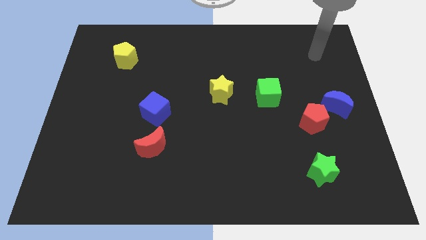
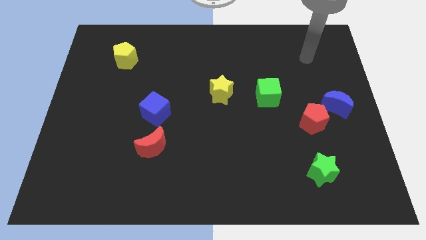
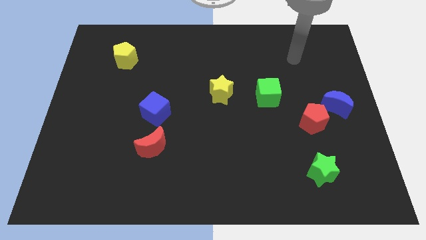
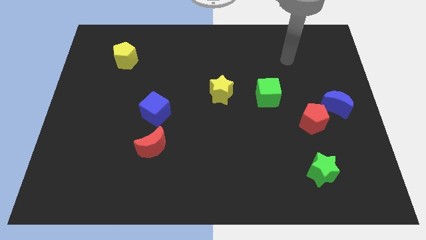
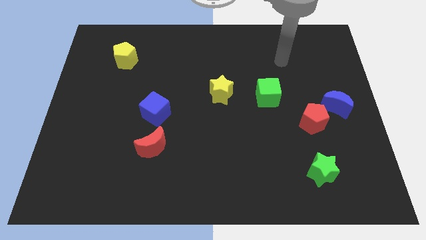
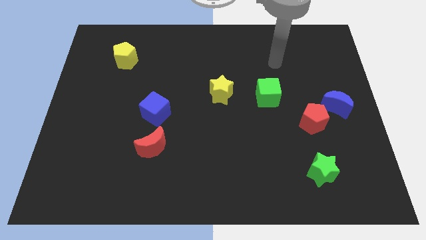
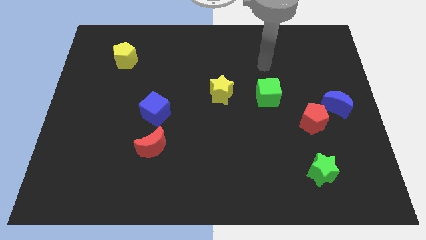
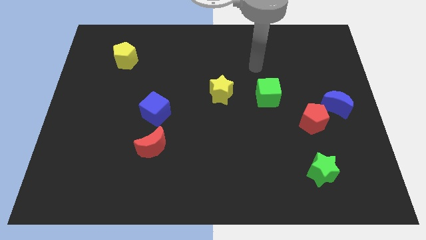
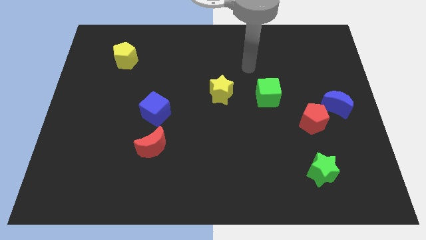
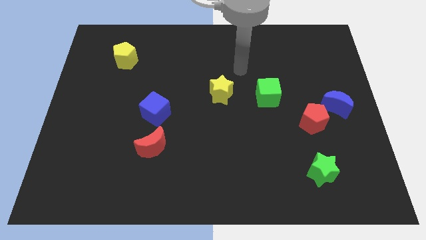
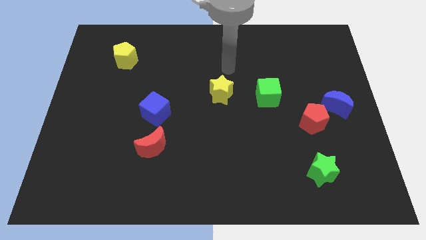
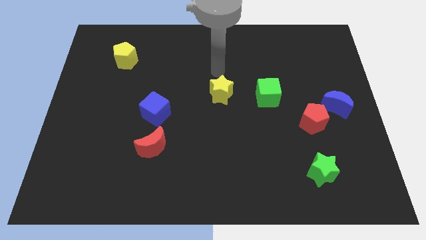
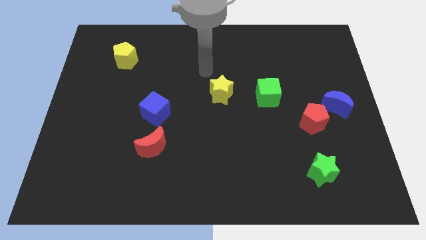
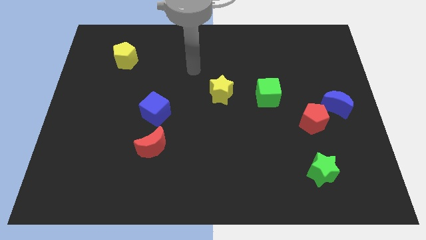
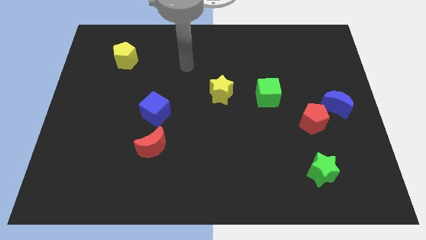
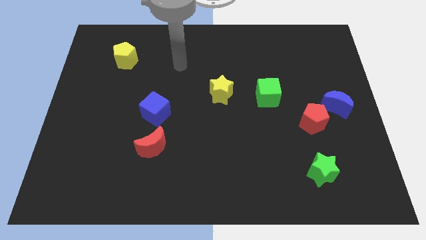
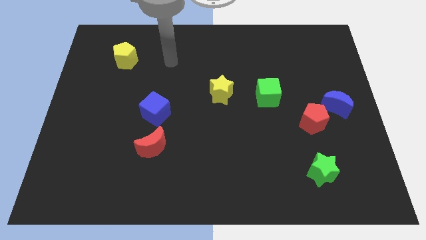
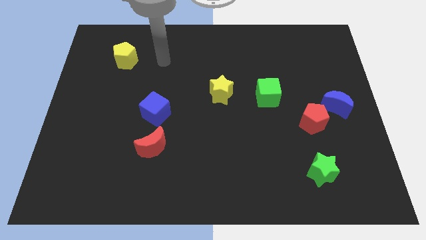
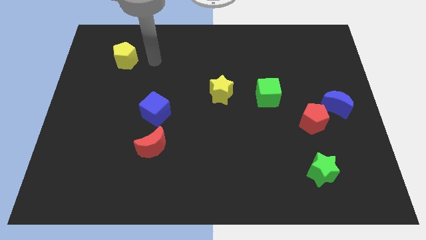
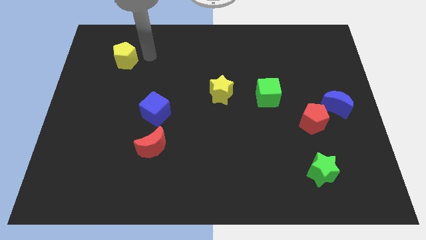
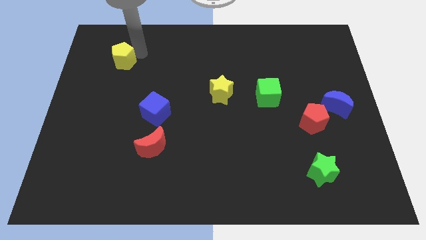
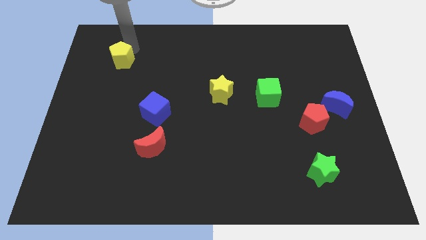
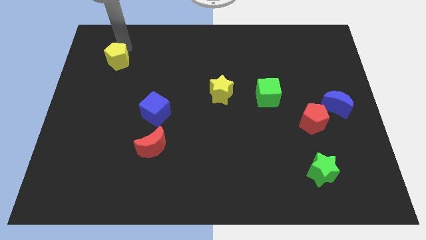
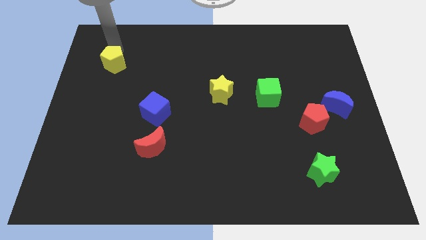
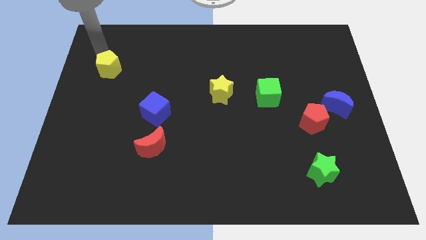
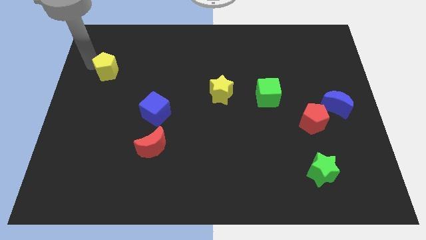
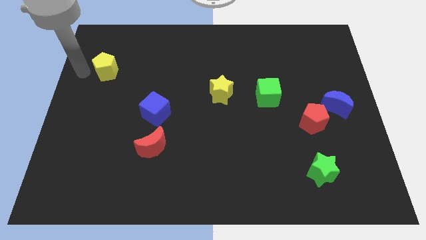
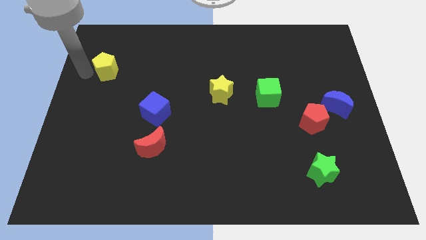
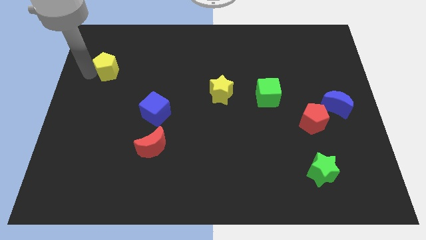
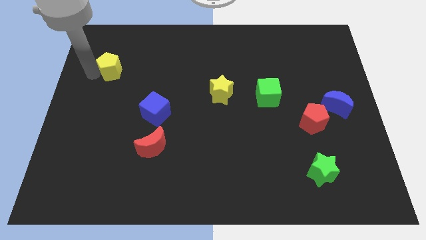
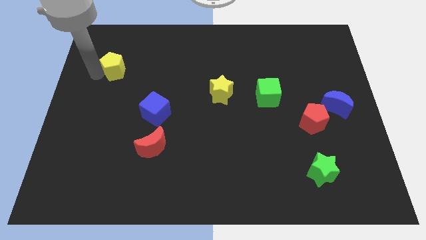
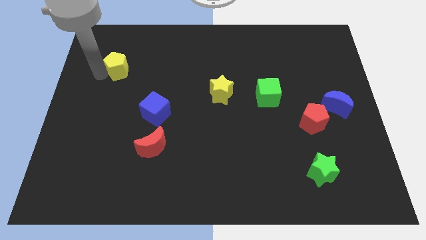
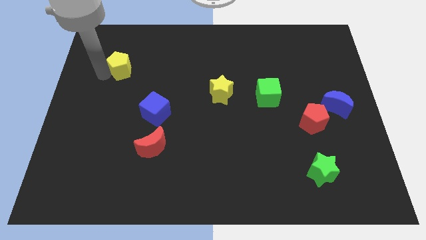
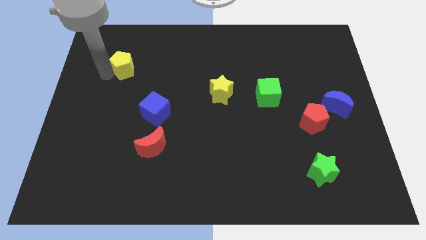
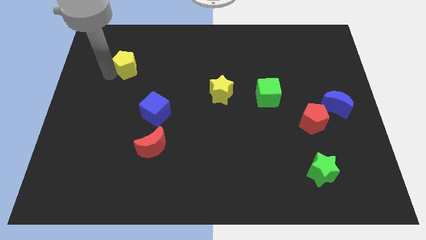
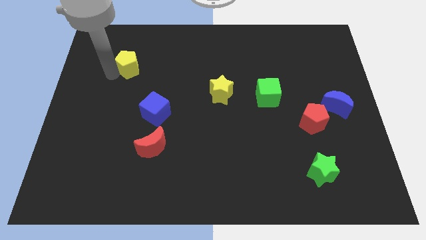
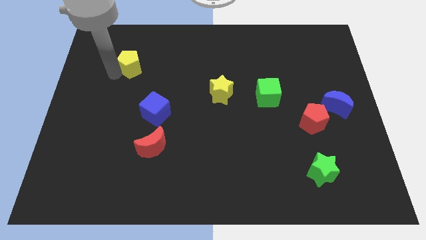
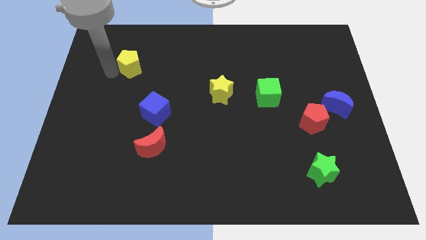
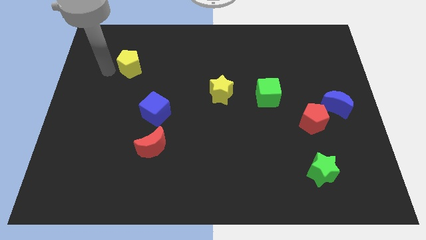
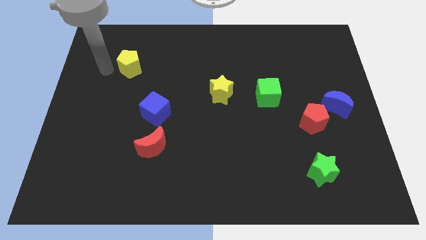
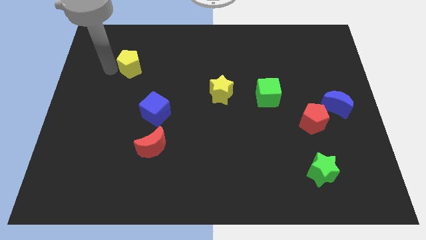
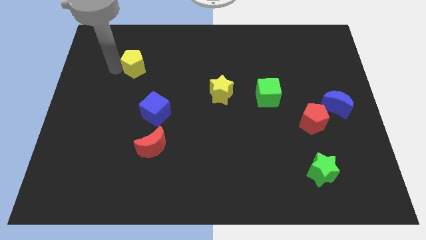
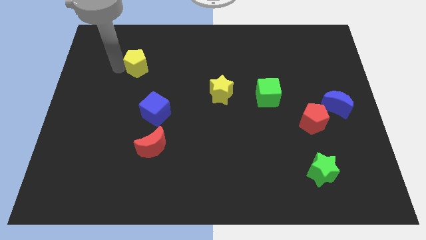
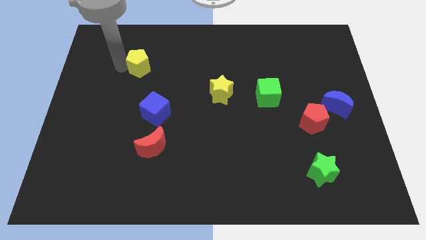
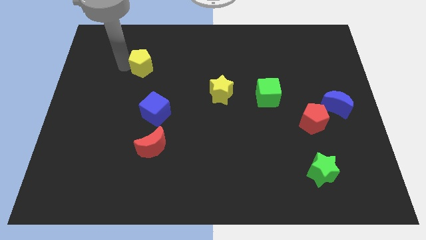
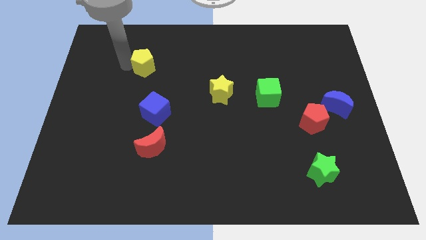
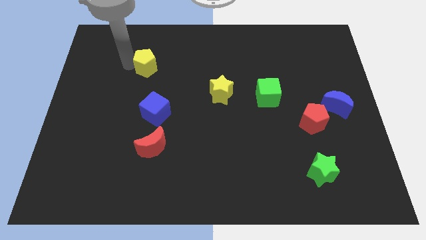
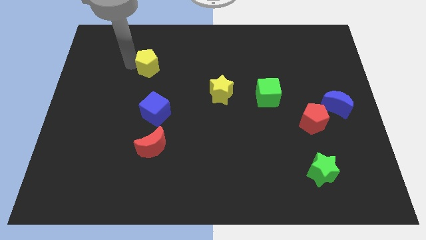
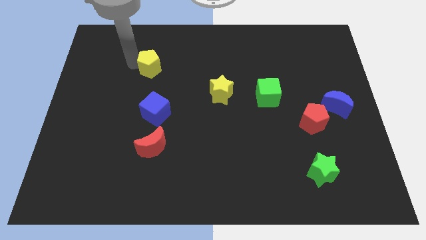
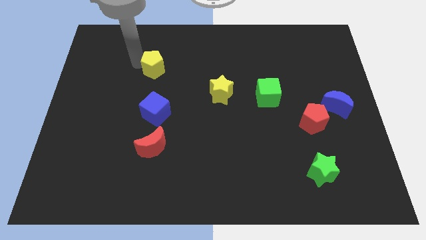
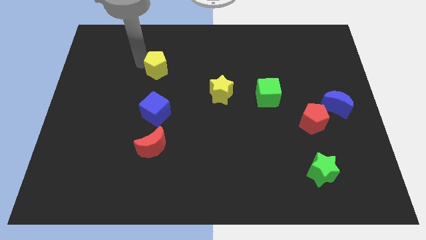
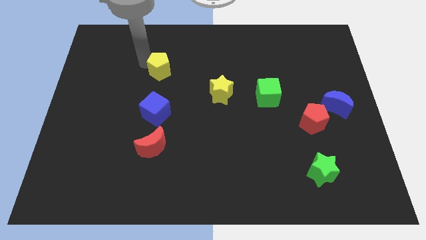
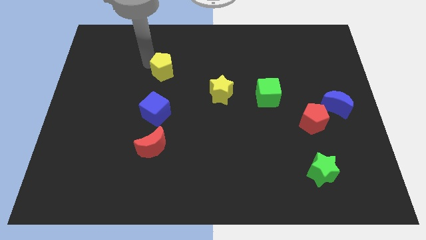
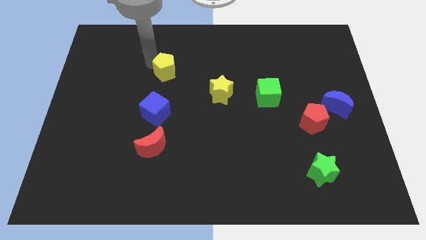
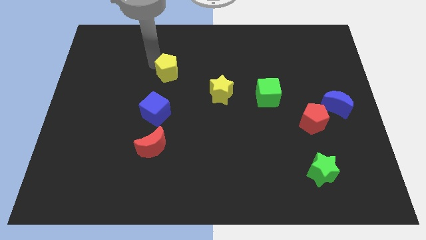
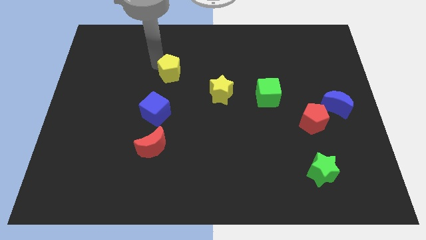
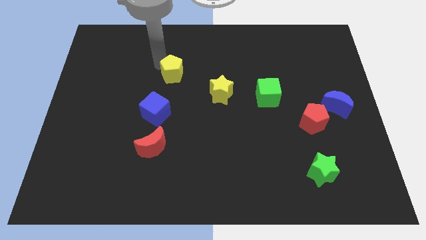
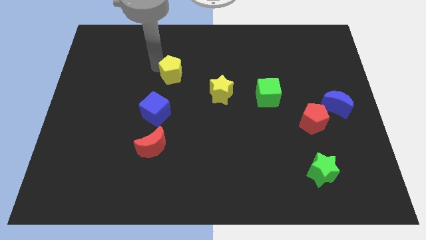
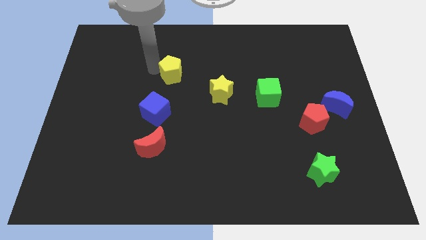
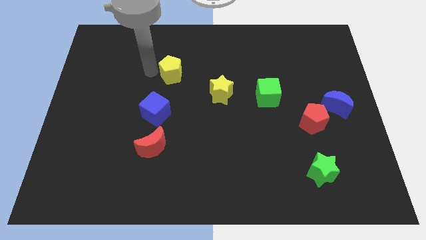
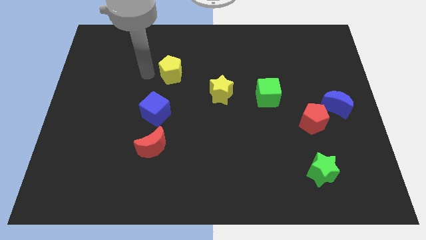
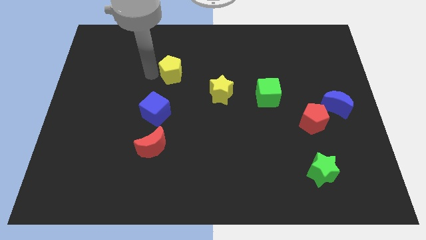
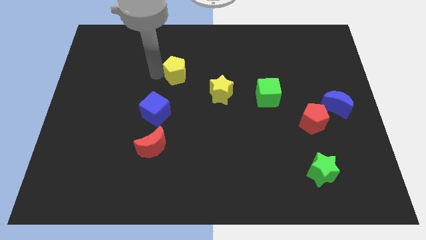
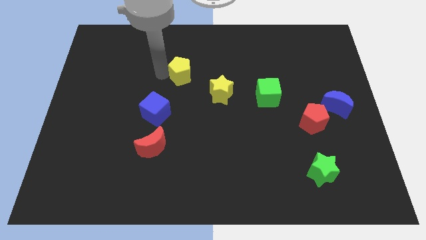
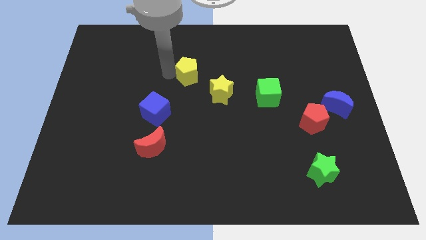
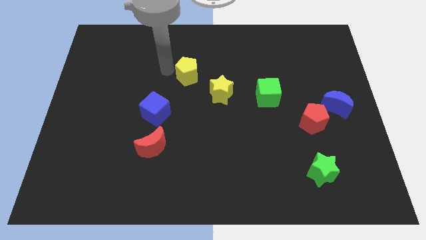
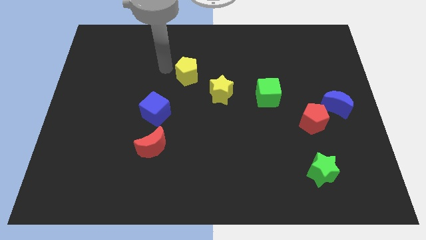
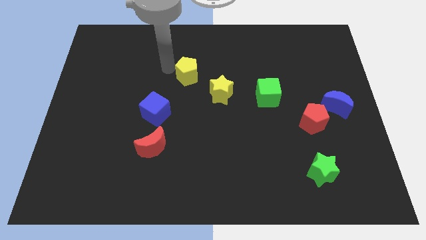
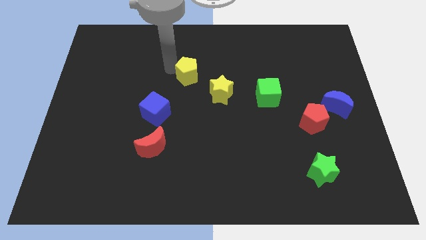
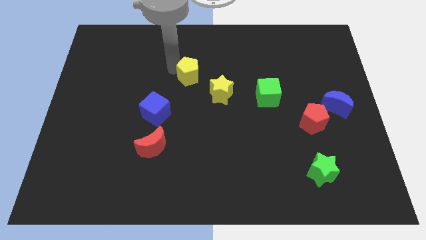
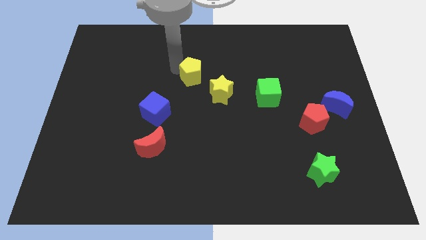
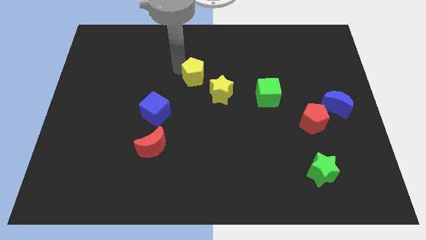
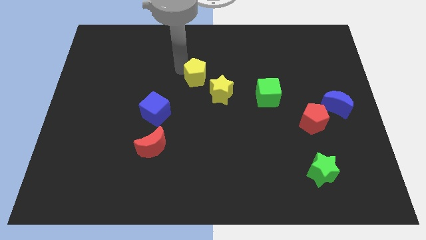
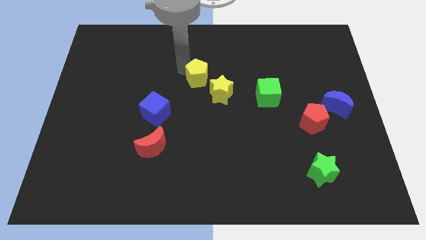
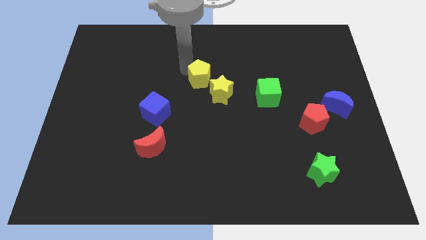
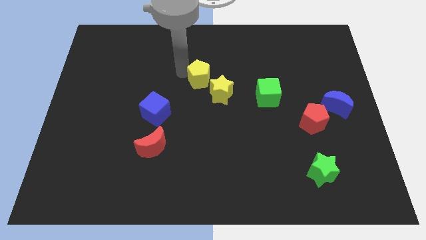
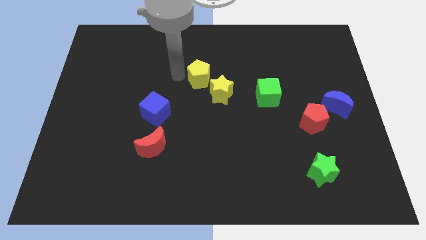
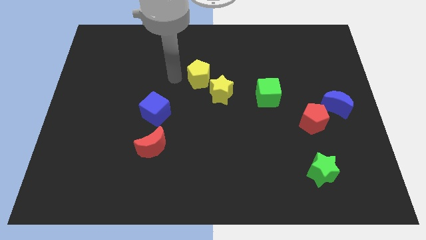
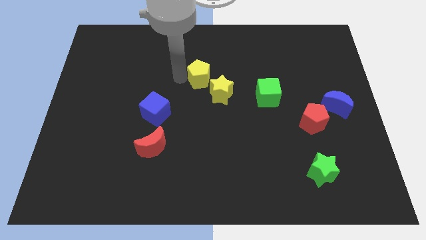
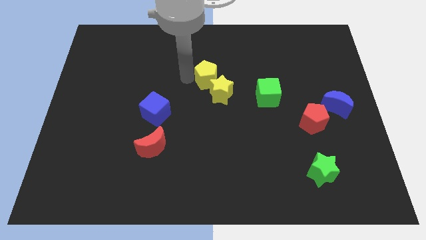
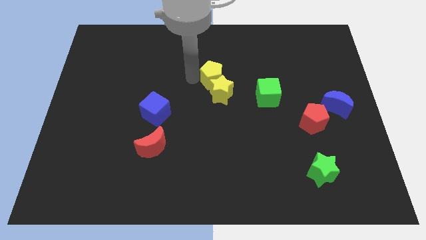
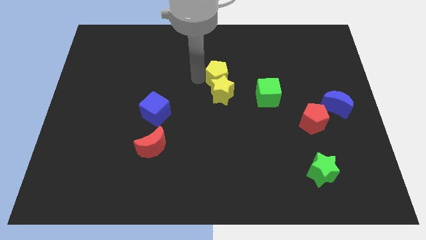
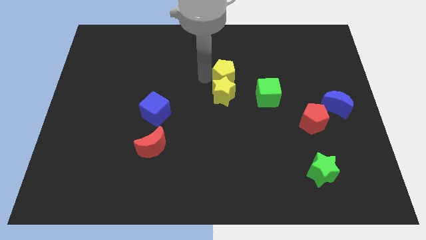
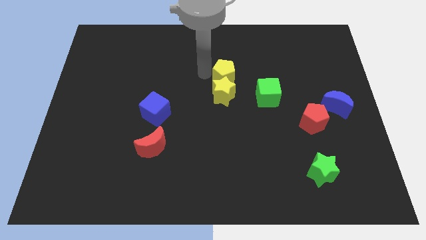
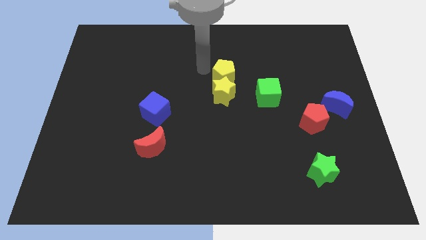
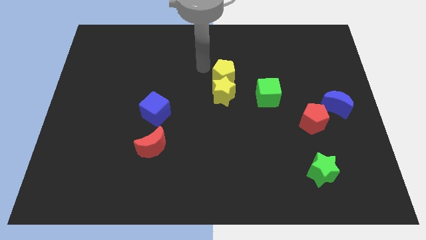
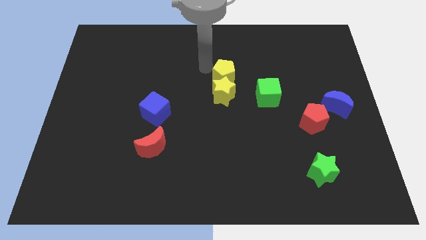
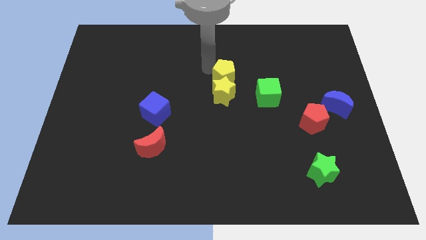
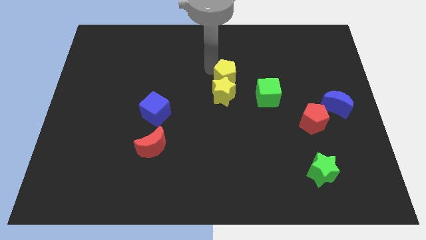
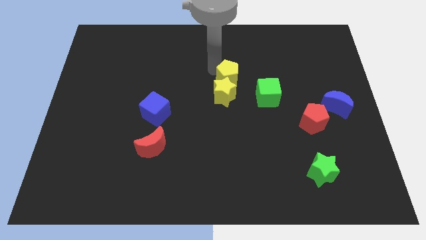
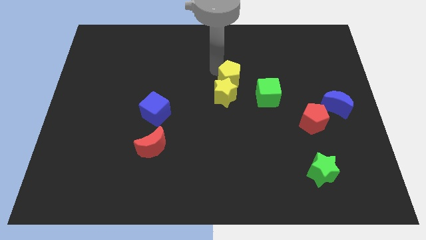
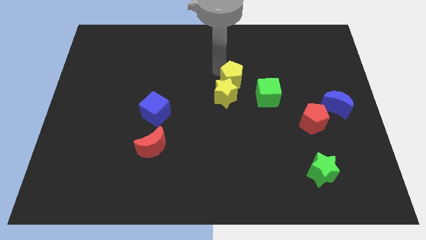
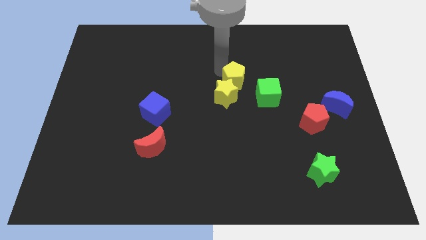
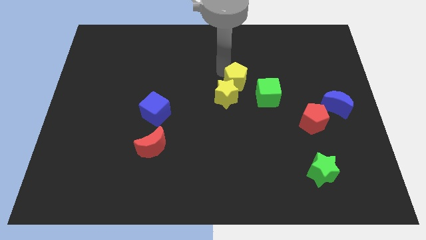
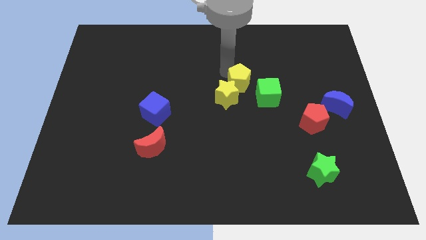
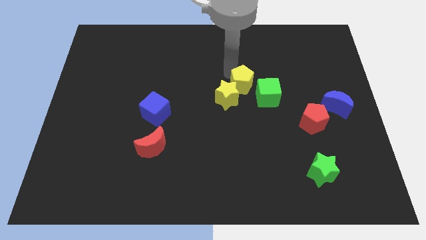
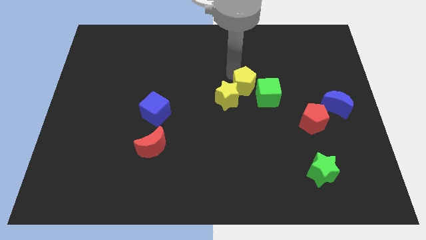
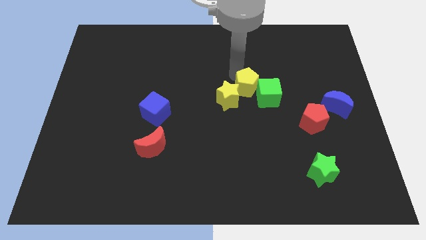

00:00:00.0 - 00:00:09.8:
slide the yellow pentagon to the green cube
